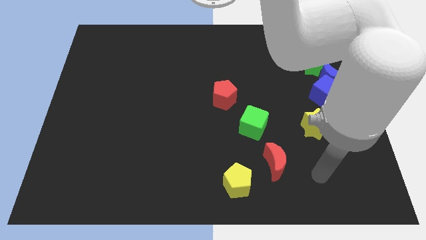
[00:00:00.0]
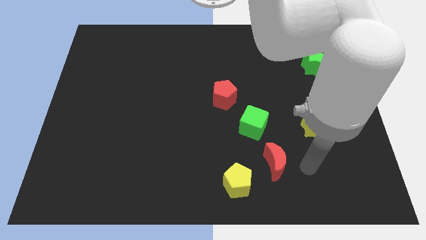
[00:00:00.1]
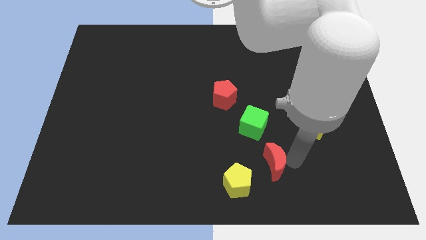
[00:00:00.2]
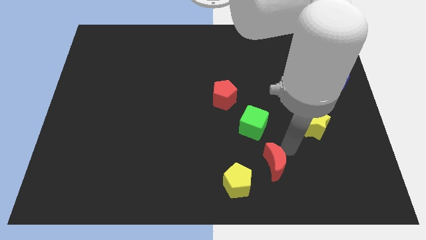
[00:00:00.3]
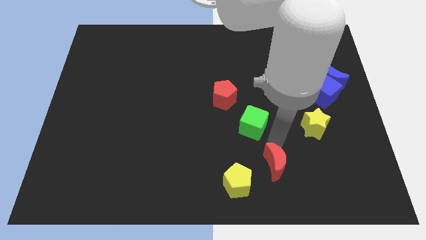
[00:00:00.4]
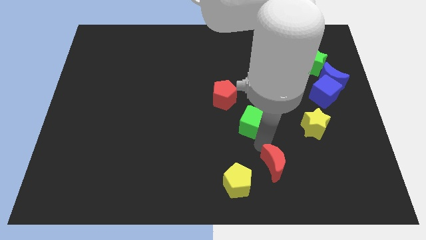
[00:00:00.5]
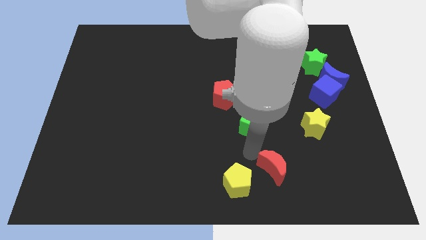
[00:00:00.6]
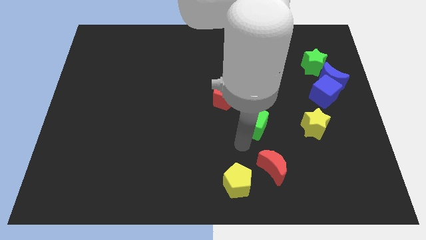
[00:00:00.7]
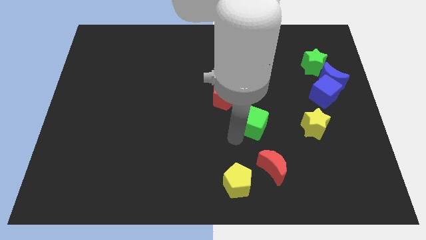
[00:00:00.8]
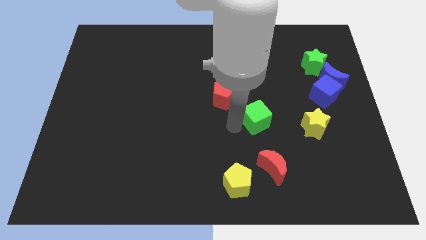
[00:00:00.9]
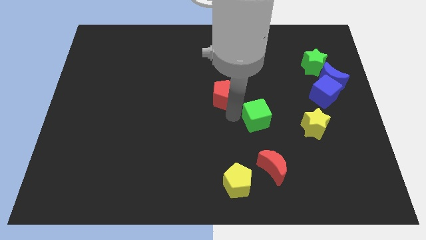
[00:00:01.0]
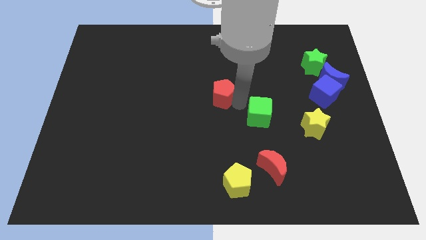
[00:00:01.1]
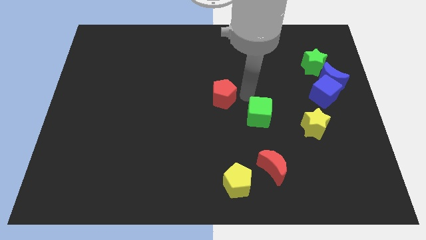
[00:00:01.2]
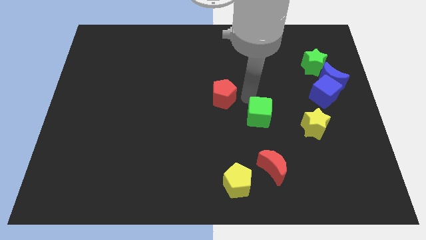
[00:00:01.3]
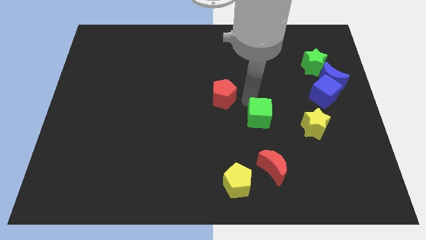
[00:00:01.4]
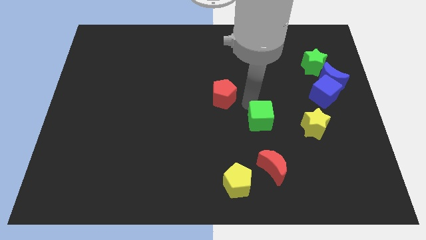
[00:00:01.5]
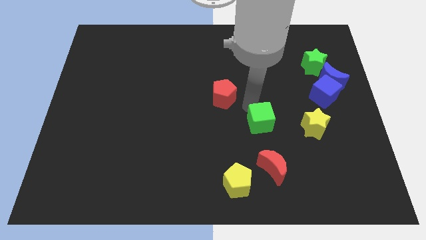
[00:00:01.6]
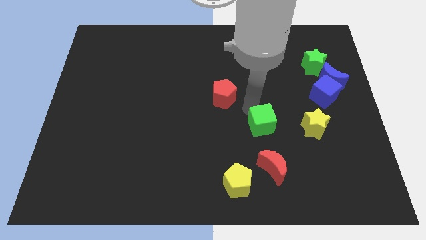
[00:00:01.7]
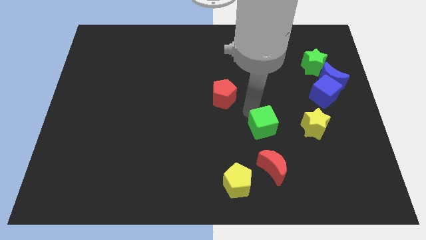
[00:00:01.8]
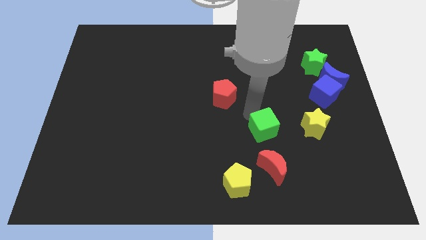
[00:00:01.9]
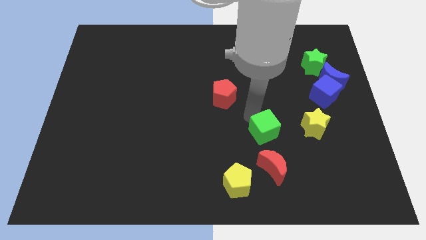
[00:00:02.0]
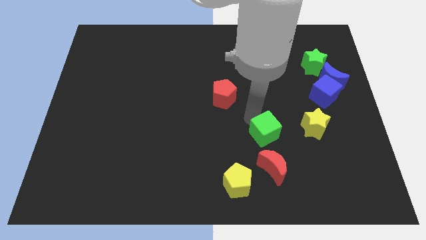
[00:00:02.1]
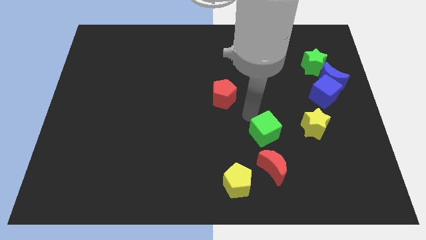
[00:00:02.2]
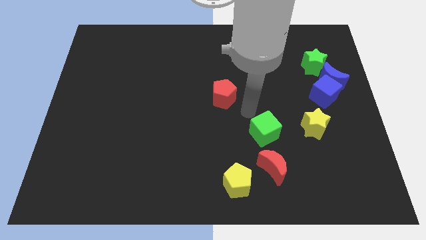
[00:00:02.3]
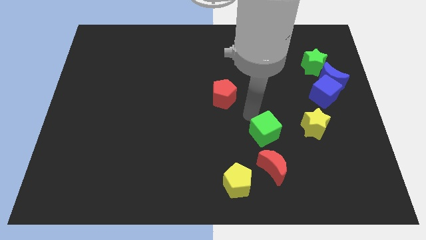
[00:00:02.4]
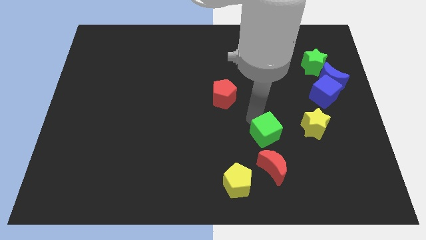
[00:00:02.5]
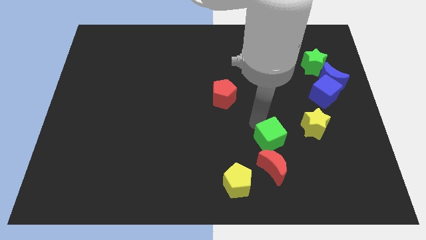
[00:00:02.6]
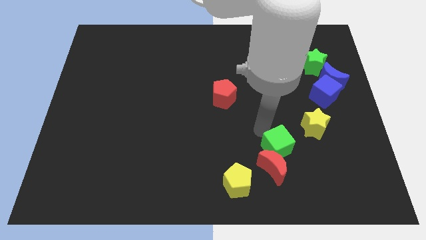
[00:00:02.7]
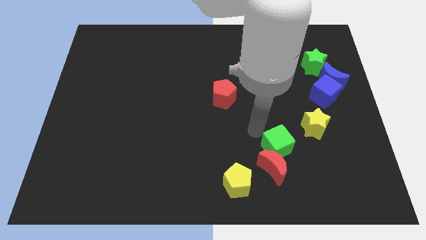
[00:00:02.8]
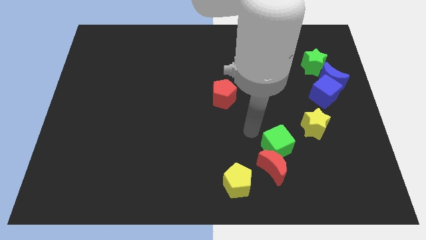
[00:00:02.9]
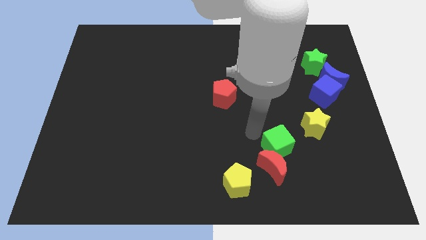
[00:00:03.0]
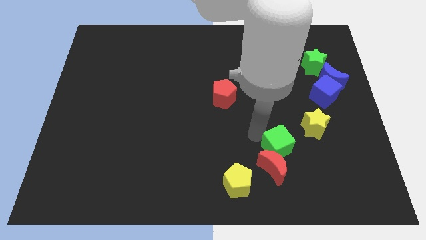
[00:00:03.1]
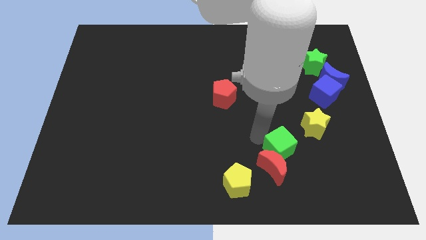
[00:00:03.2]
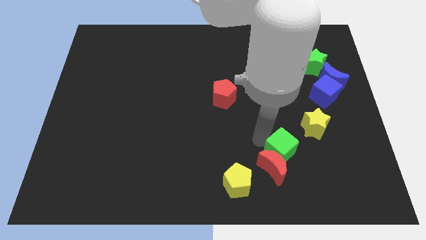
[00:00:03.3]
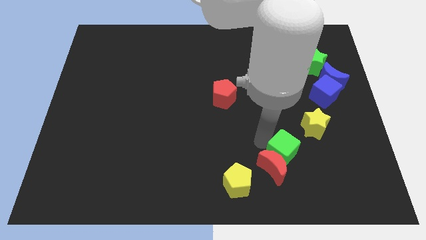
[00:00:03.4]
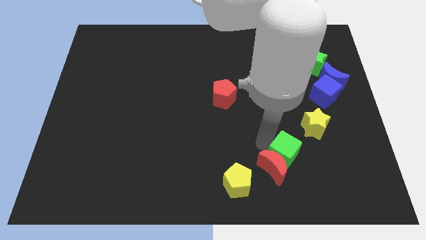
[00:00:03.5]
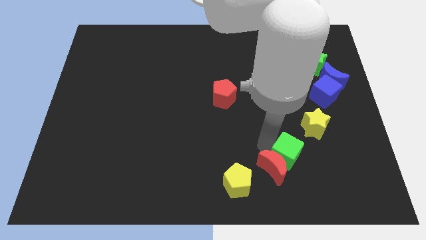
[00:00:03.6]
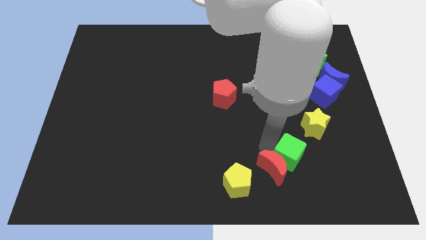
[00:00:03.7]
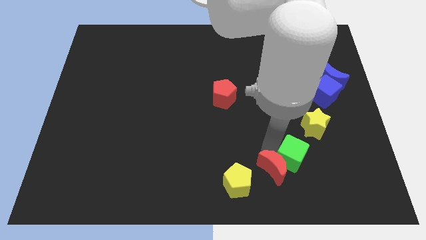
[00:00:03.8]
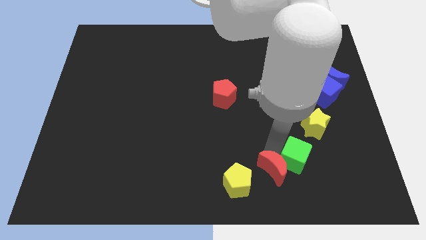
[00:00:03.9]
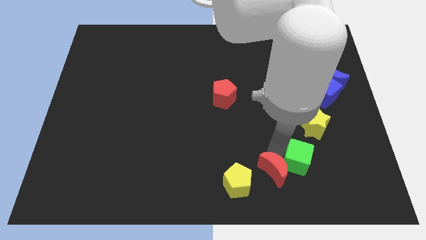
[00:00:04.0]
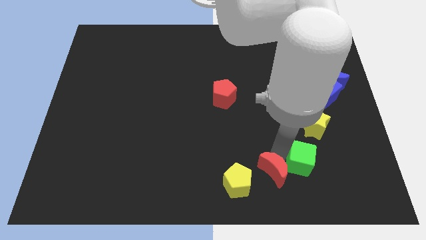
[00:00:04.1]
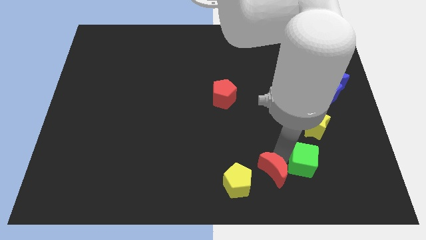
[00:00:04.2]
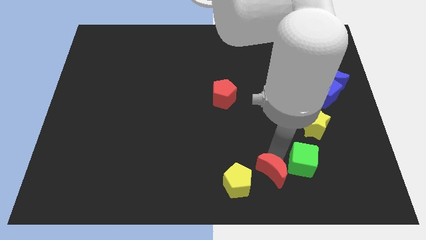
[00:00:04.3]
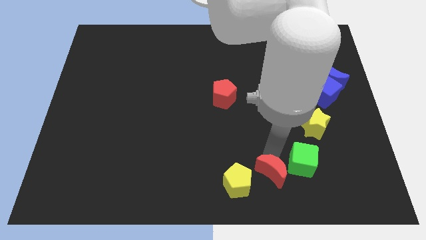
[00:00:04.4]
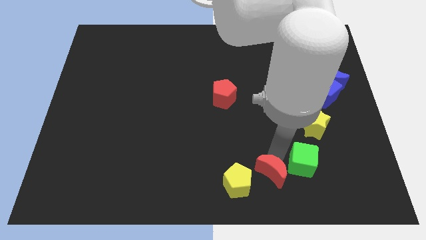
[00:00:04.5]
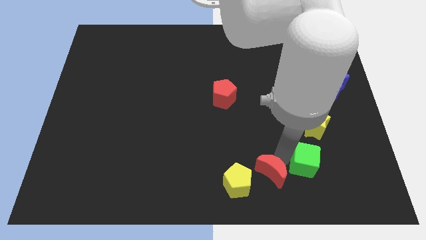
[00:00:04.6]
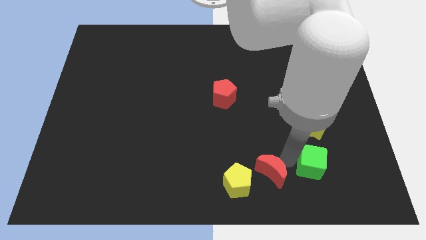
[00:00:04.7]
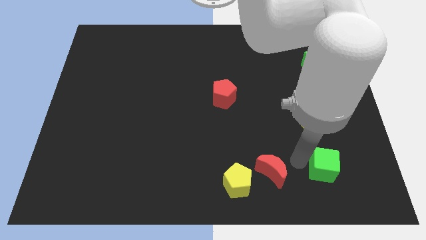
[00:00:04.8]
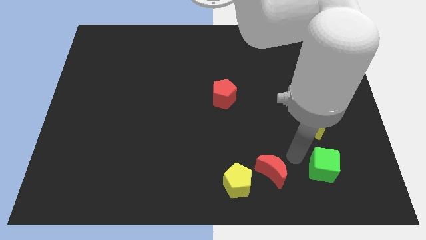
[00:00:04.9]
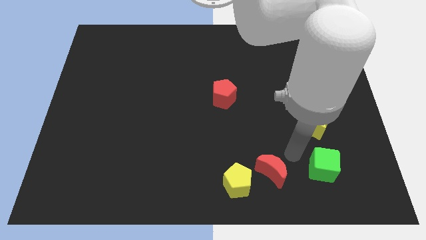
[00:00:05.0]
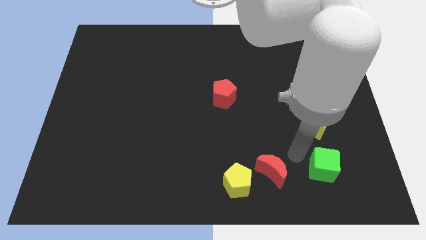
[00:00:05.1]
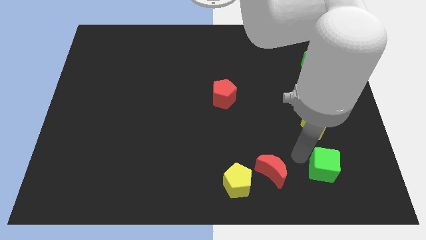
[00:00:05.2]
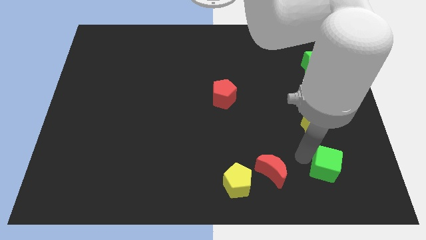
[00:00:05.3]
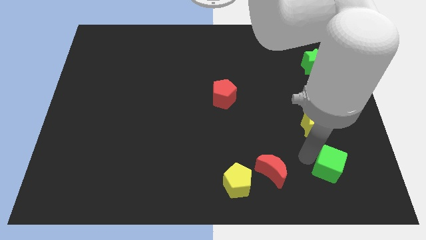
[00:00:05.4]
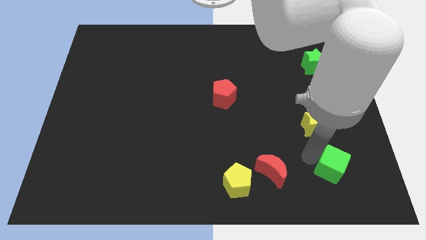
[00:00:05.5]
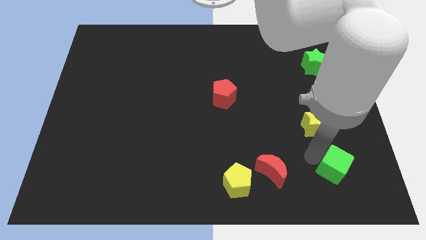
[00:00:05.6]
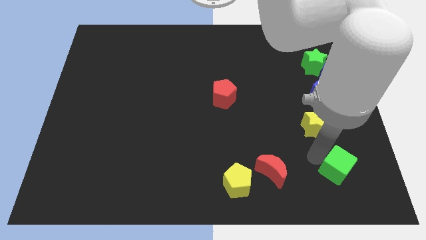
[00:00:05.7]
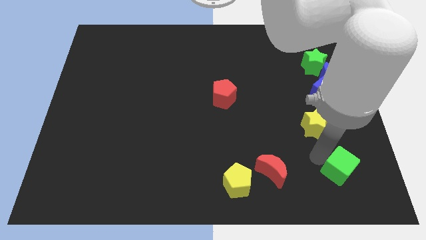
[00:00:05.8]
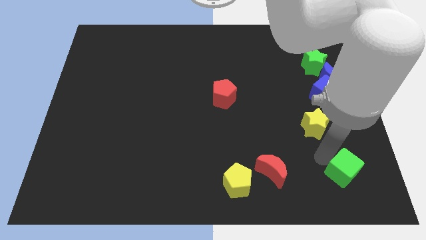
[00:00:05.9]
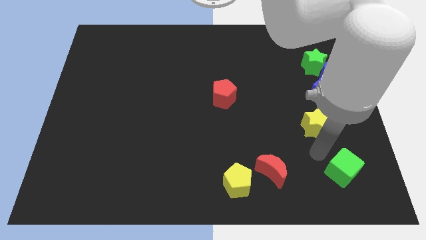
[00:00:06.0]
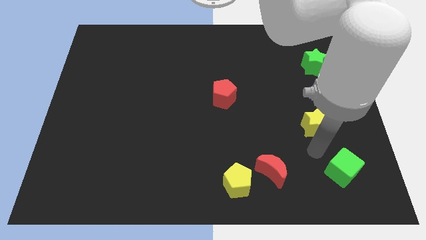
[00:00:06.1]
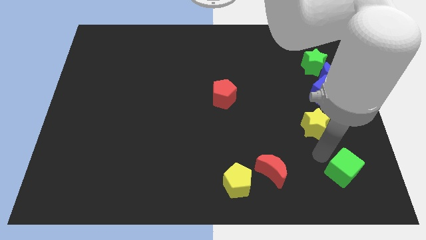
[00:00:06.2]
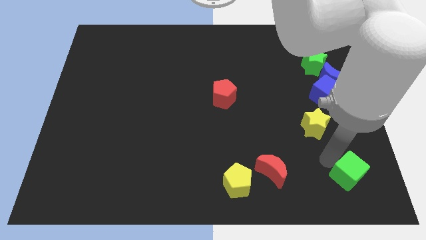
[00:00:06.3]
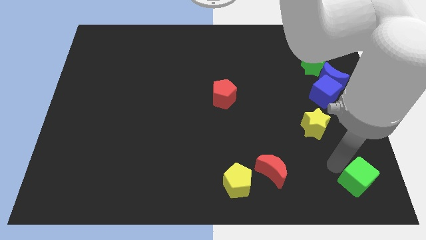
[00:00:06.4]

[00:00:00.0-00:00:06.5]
slide the green cube to the bottom right

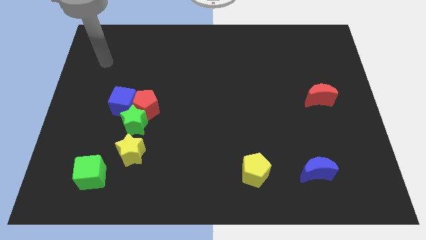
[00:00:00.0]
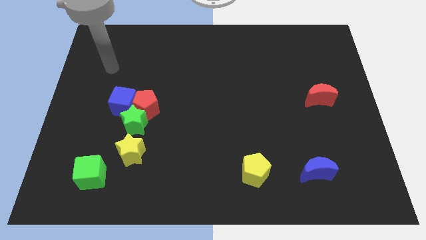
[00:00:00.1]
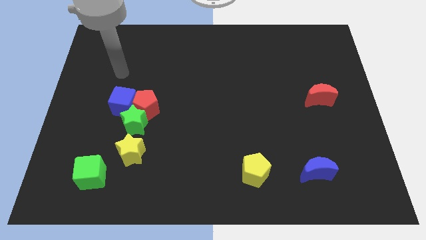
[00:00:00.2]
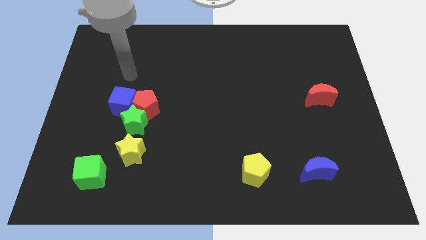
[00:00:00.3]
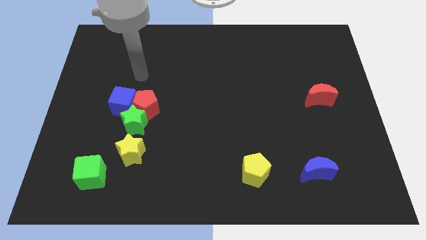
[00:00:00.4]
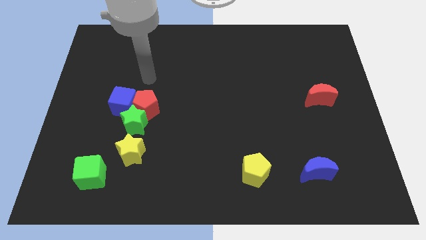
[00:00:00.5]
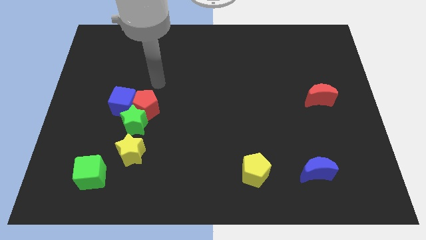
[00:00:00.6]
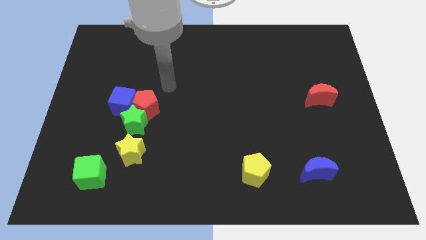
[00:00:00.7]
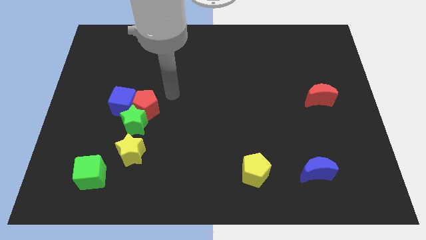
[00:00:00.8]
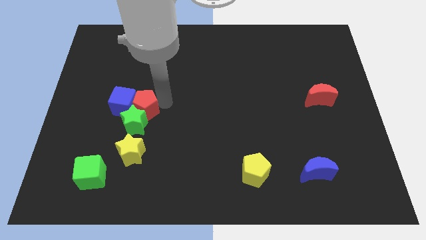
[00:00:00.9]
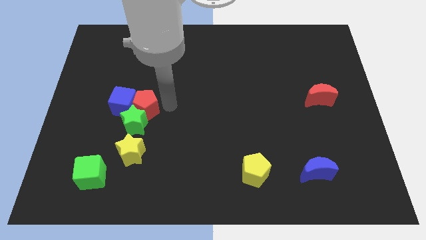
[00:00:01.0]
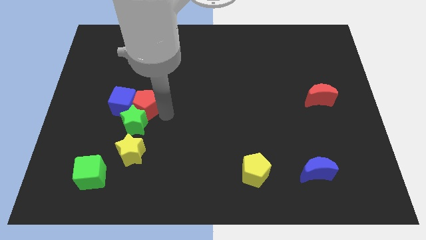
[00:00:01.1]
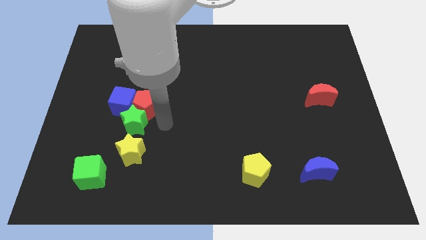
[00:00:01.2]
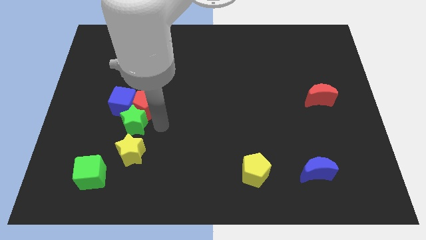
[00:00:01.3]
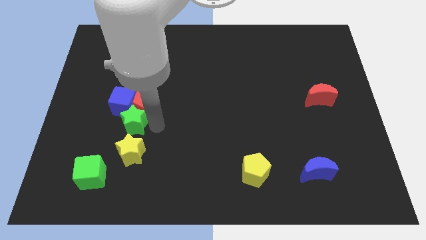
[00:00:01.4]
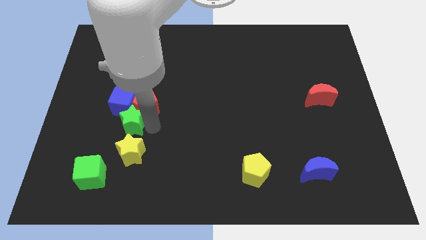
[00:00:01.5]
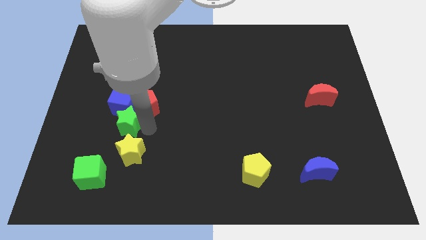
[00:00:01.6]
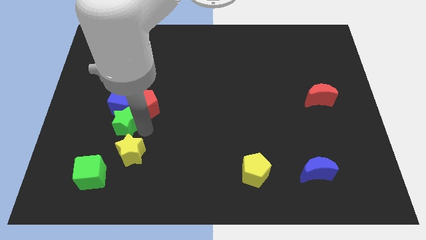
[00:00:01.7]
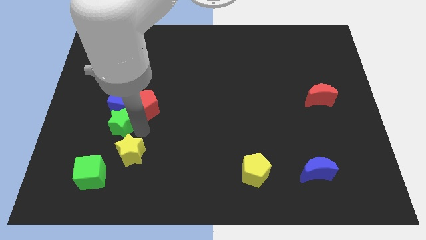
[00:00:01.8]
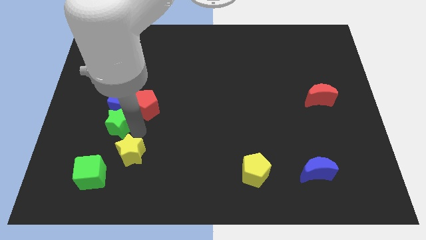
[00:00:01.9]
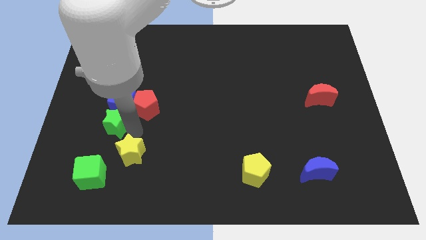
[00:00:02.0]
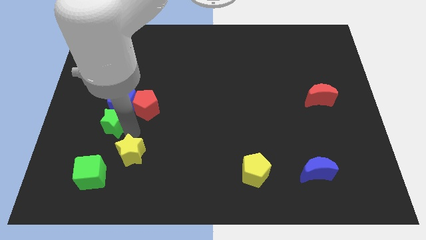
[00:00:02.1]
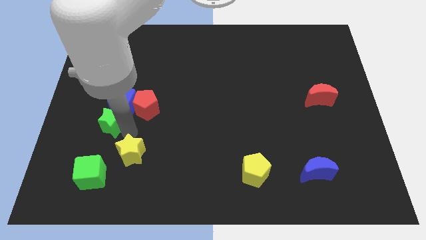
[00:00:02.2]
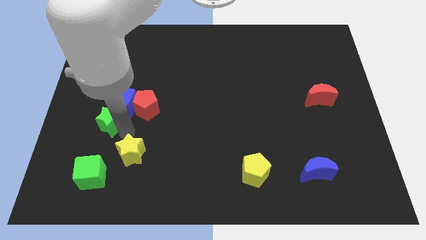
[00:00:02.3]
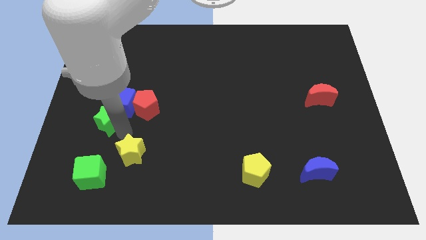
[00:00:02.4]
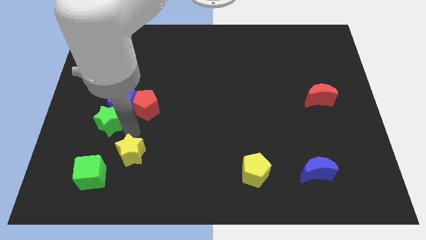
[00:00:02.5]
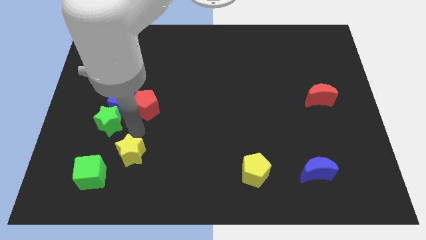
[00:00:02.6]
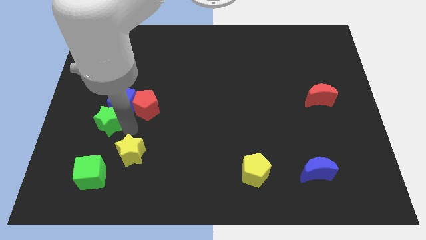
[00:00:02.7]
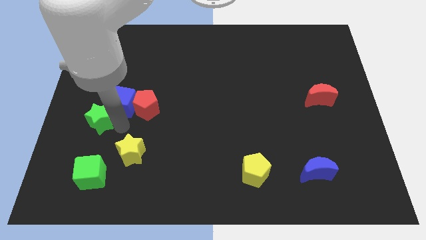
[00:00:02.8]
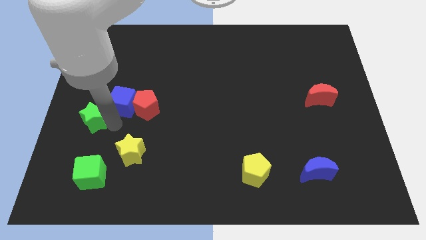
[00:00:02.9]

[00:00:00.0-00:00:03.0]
slide the green star to the left side
